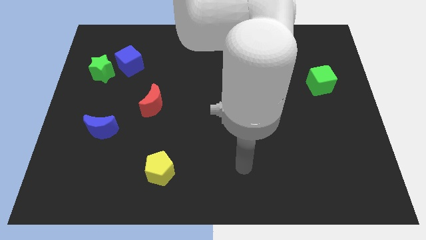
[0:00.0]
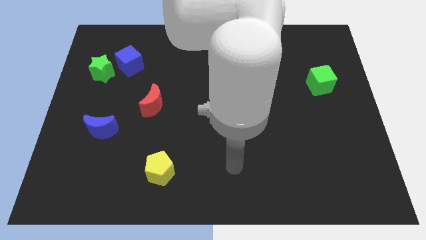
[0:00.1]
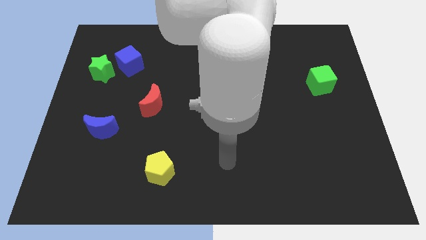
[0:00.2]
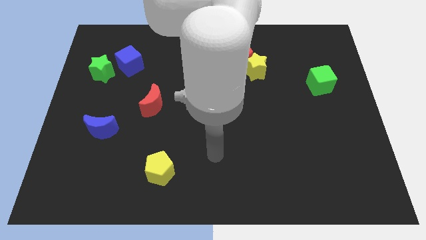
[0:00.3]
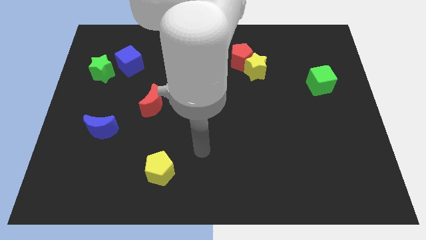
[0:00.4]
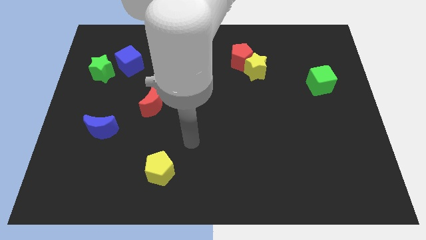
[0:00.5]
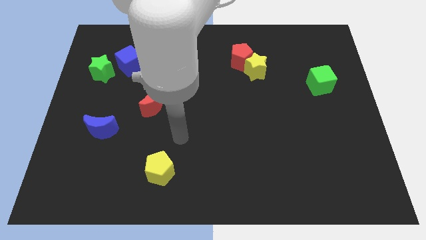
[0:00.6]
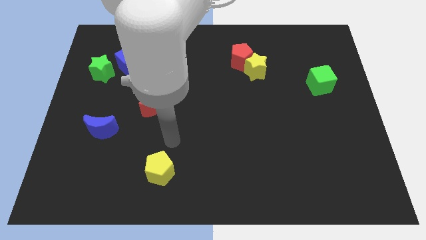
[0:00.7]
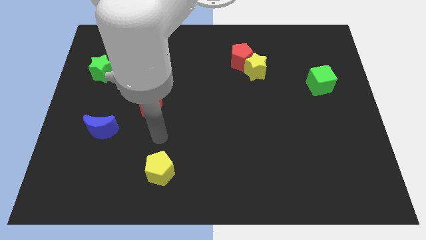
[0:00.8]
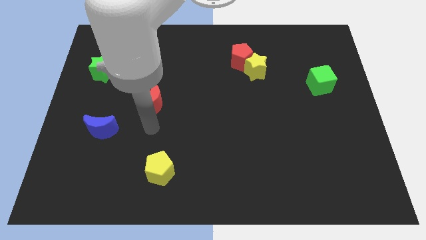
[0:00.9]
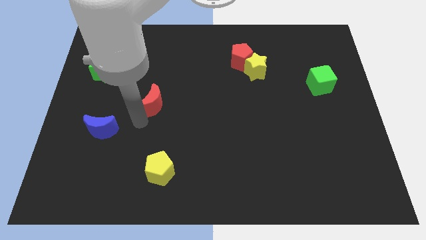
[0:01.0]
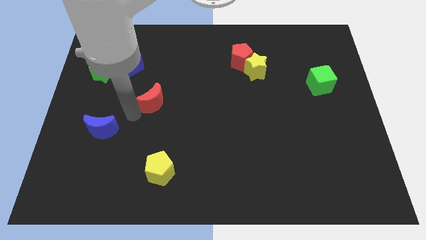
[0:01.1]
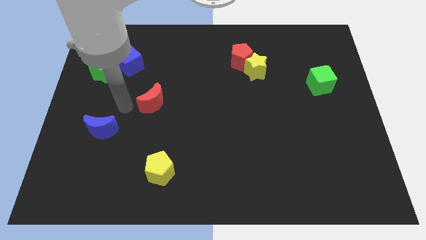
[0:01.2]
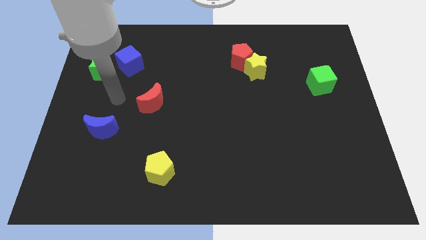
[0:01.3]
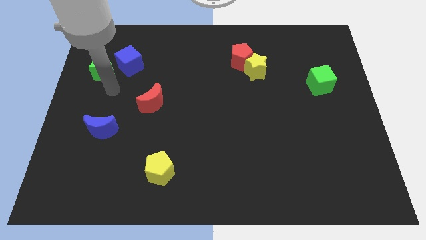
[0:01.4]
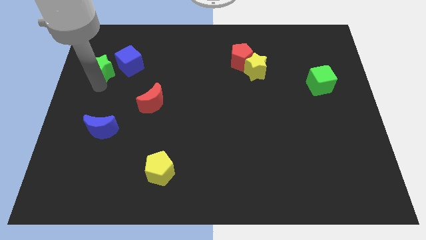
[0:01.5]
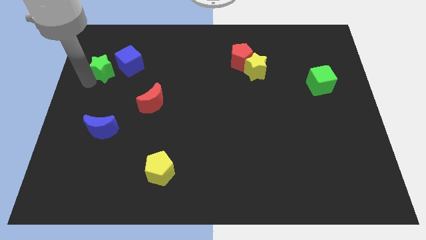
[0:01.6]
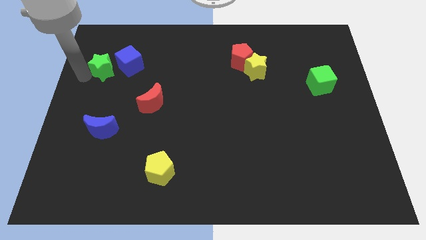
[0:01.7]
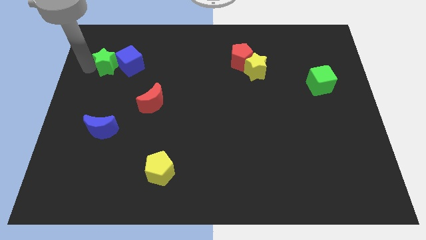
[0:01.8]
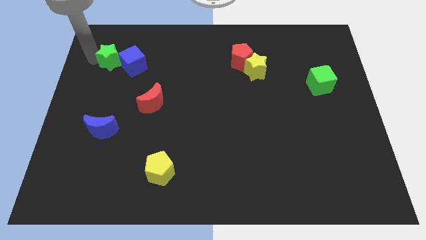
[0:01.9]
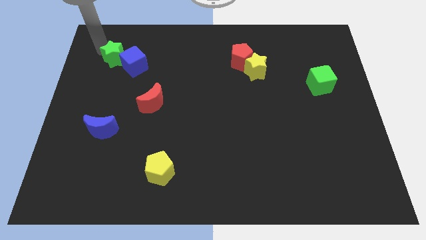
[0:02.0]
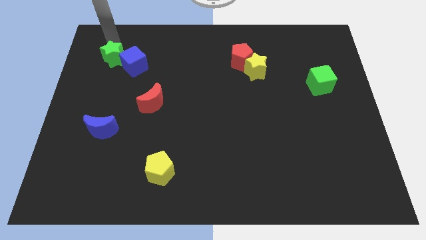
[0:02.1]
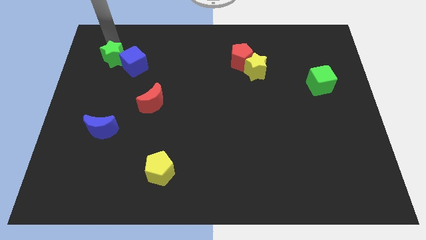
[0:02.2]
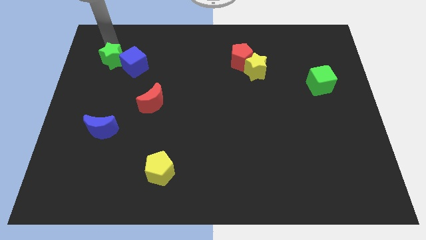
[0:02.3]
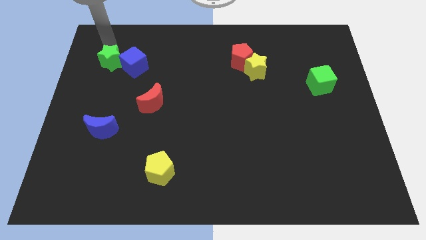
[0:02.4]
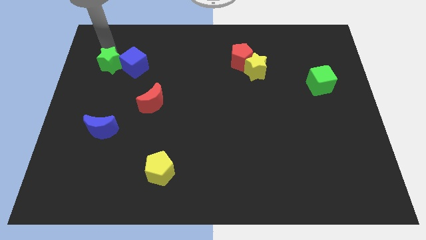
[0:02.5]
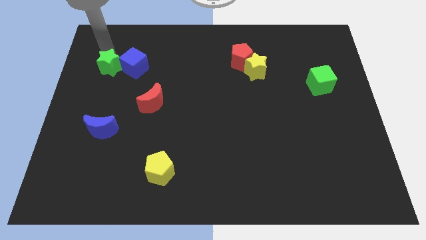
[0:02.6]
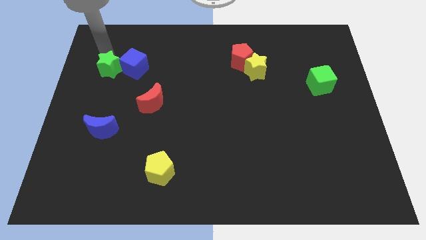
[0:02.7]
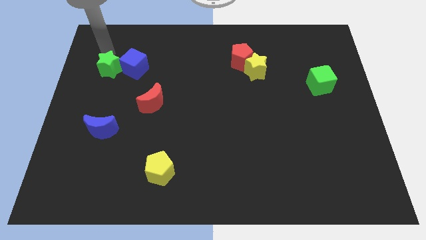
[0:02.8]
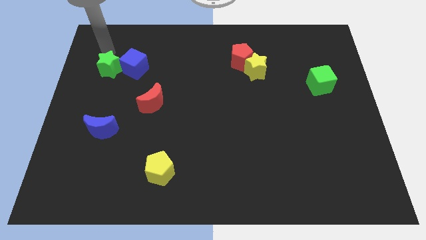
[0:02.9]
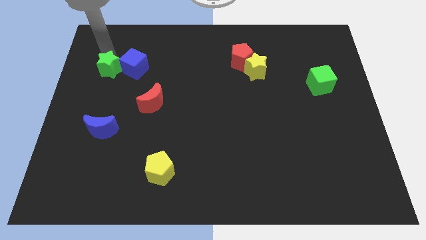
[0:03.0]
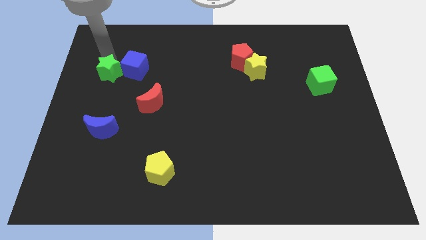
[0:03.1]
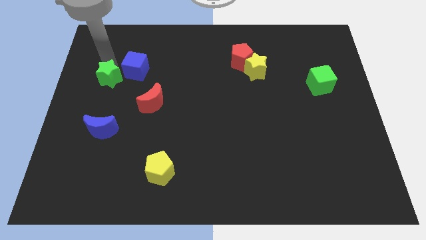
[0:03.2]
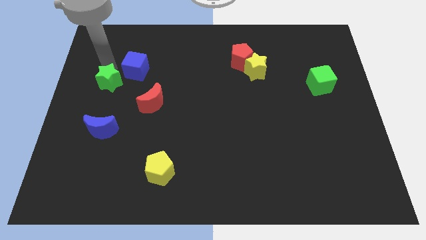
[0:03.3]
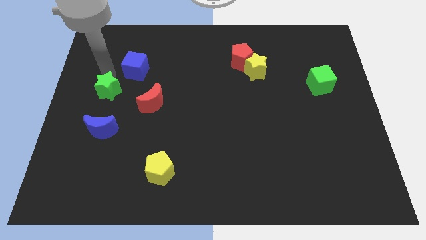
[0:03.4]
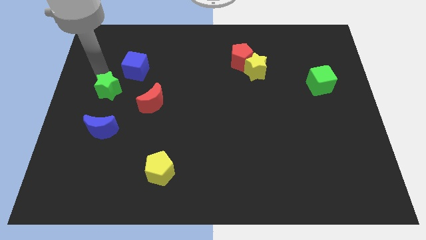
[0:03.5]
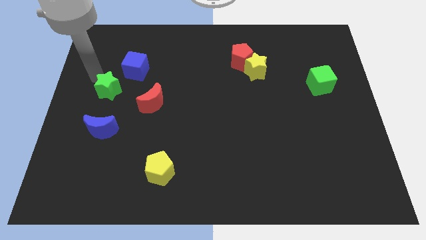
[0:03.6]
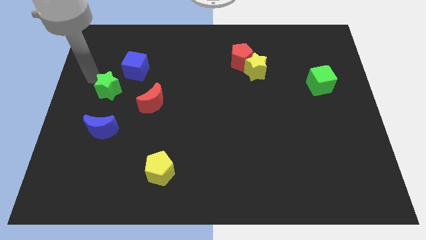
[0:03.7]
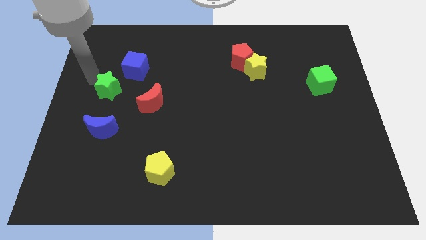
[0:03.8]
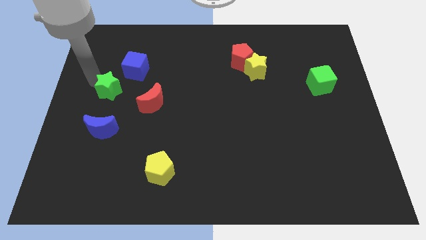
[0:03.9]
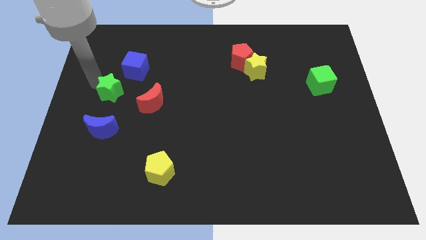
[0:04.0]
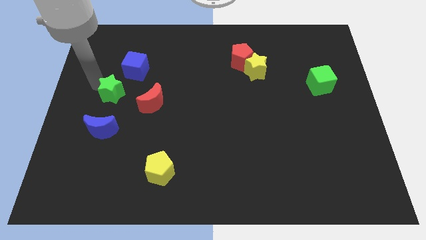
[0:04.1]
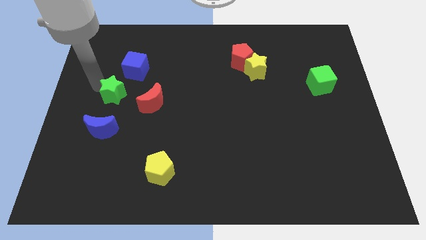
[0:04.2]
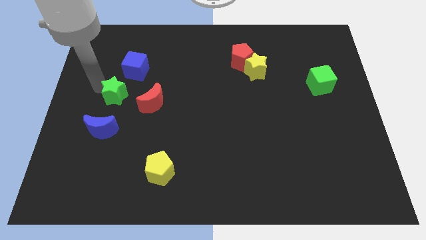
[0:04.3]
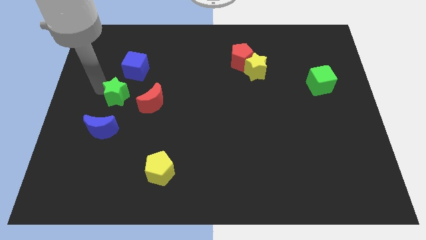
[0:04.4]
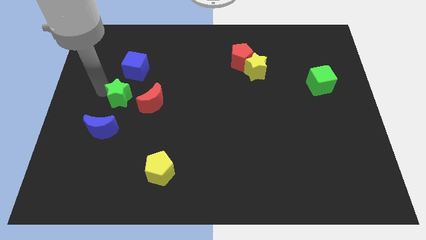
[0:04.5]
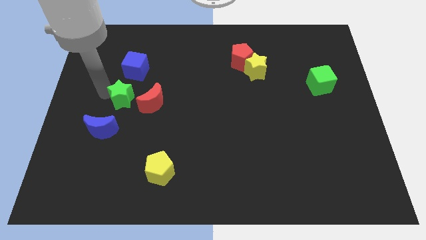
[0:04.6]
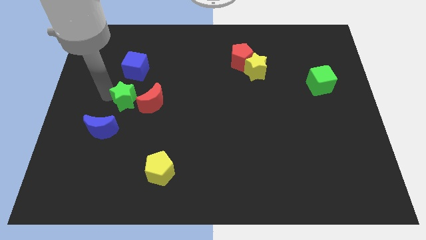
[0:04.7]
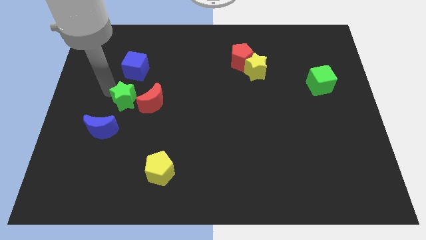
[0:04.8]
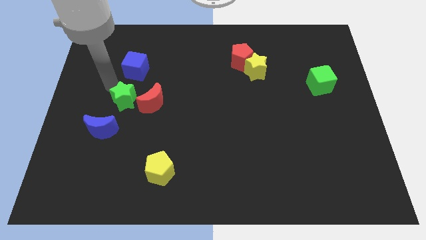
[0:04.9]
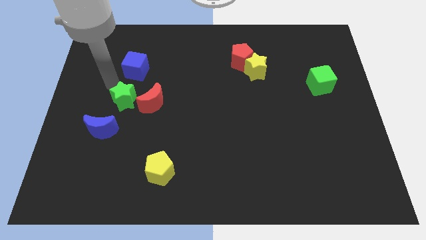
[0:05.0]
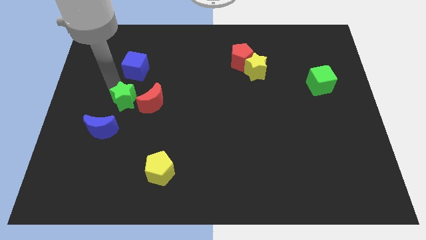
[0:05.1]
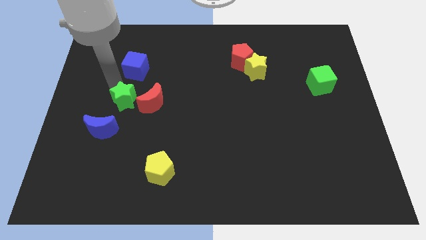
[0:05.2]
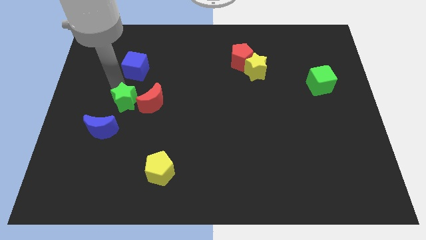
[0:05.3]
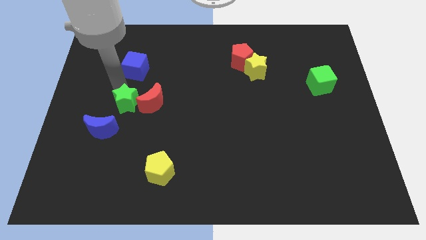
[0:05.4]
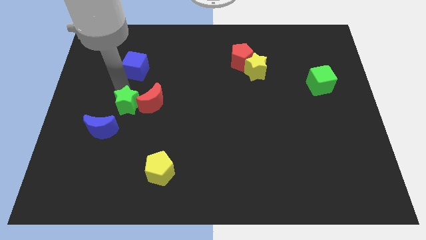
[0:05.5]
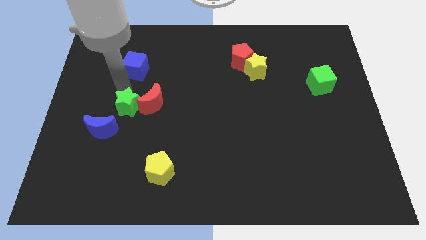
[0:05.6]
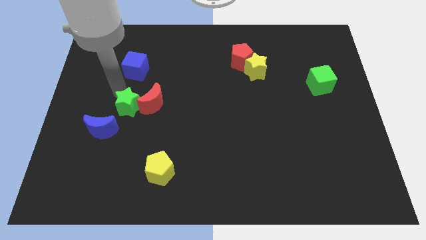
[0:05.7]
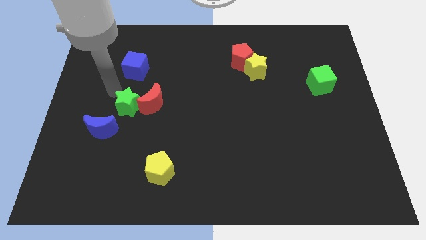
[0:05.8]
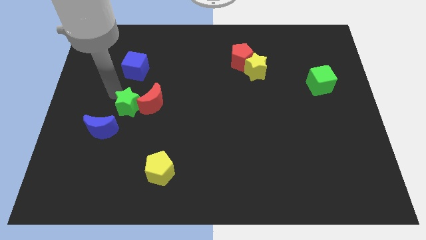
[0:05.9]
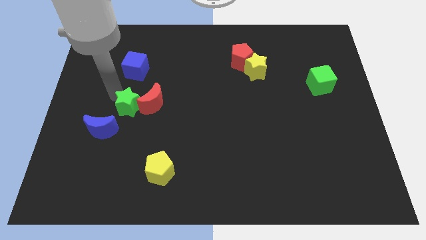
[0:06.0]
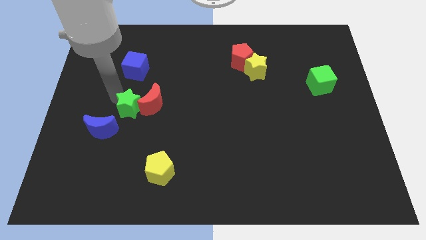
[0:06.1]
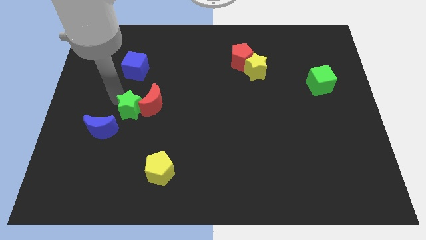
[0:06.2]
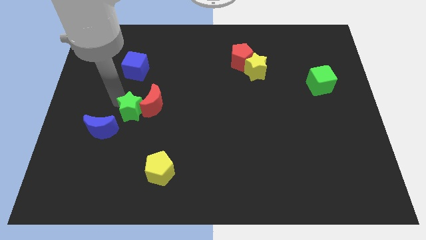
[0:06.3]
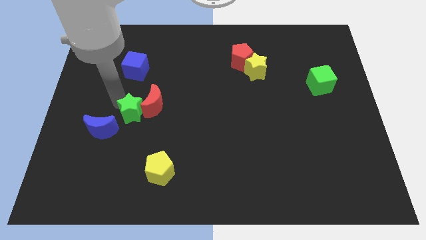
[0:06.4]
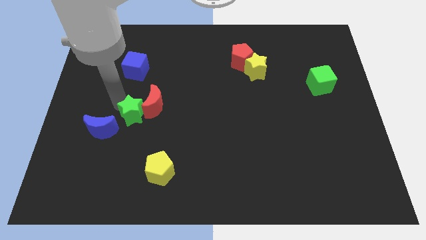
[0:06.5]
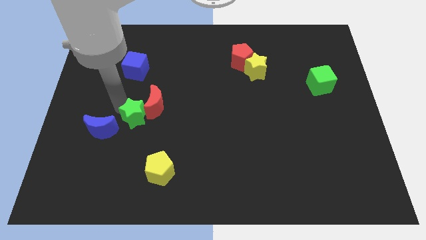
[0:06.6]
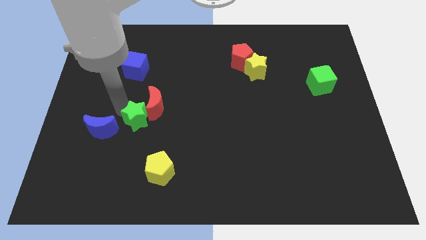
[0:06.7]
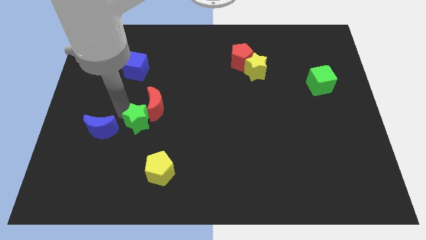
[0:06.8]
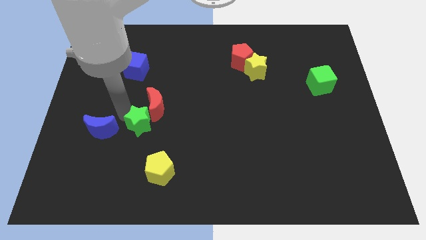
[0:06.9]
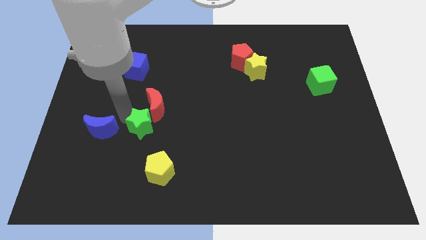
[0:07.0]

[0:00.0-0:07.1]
slide the green star diagonally down and to the right

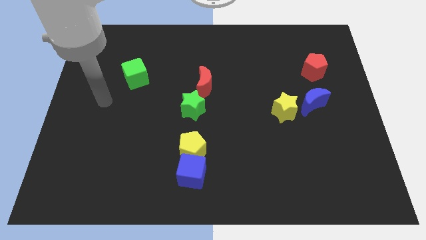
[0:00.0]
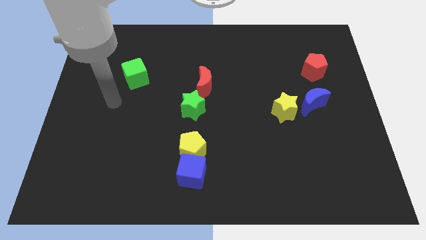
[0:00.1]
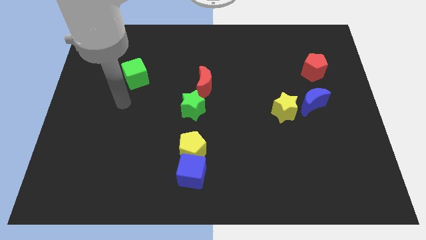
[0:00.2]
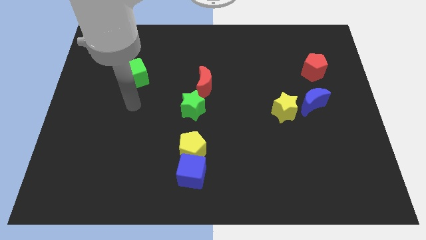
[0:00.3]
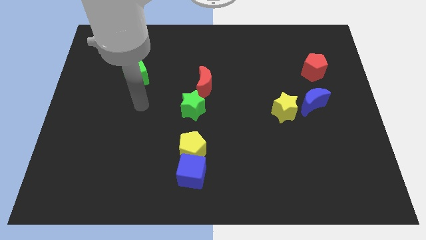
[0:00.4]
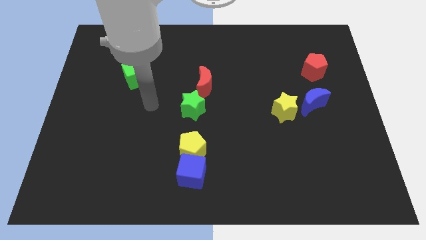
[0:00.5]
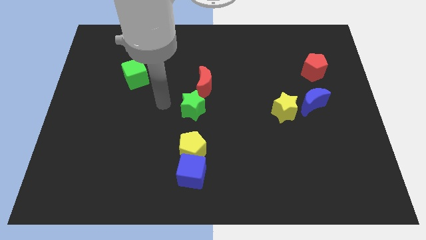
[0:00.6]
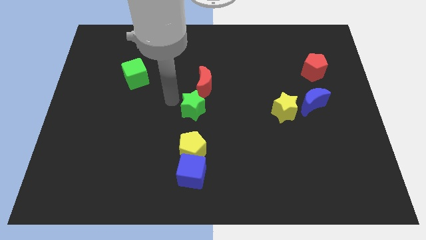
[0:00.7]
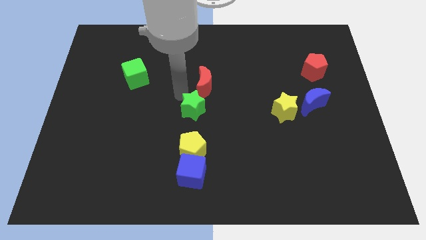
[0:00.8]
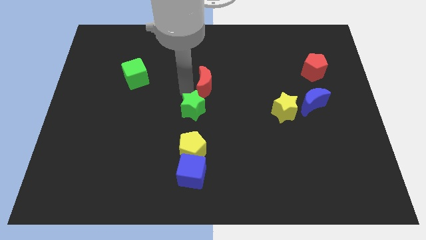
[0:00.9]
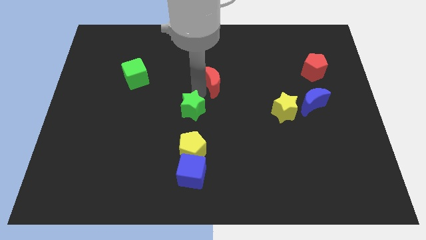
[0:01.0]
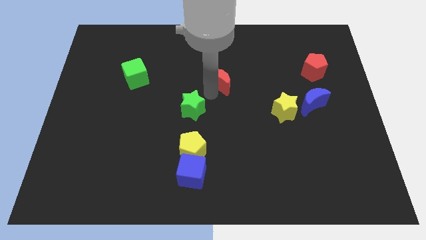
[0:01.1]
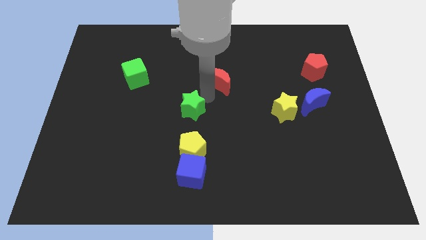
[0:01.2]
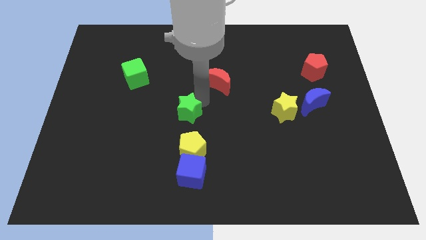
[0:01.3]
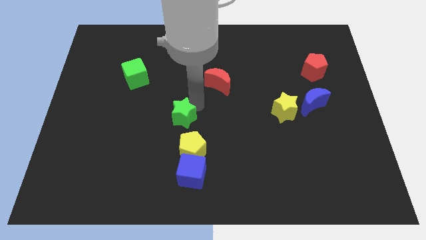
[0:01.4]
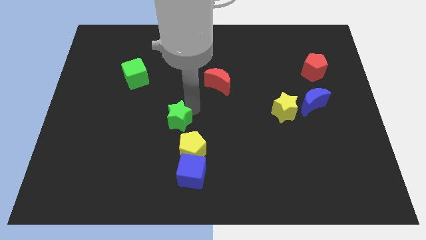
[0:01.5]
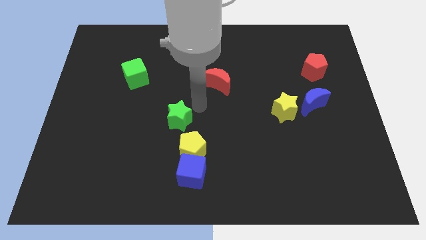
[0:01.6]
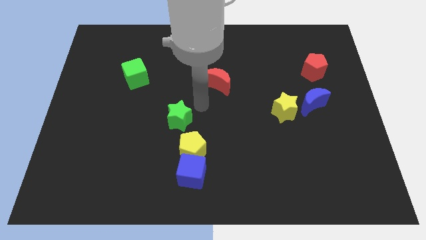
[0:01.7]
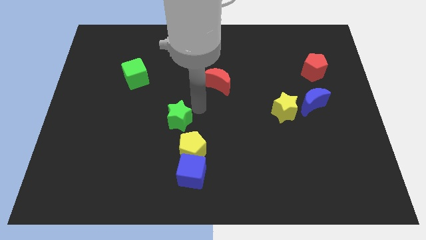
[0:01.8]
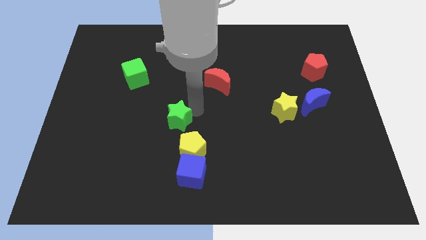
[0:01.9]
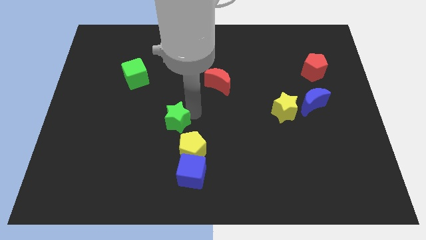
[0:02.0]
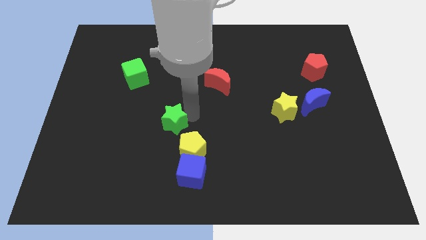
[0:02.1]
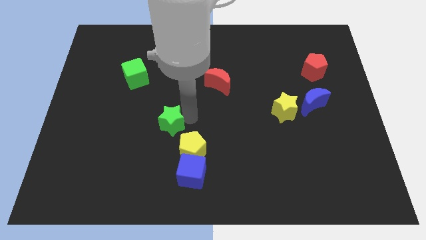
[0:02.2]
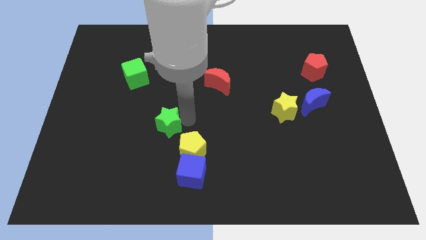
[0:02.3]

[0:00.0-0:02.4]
move the green star downwards and left diagonally a little
